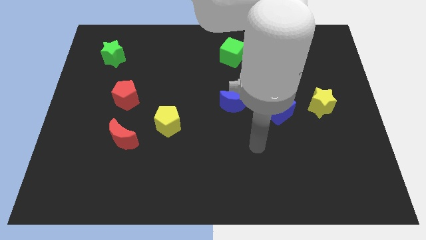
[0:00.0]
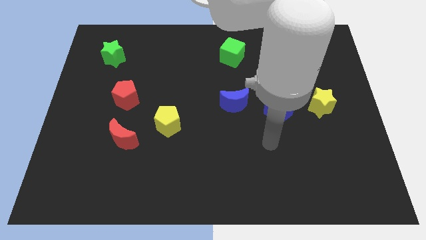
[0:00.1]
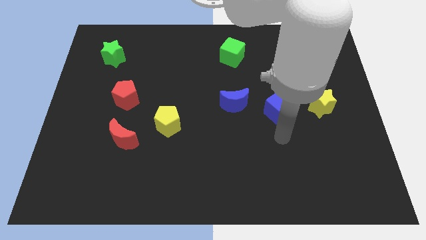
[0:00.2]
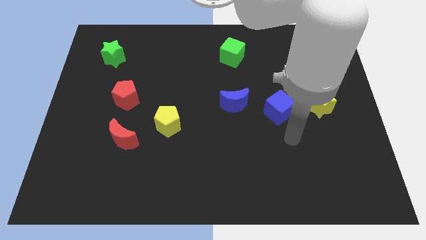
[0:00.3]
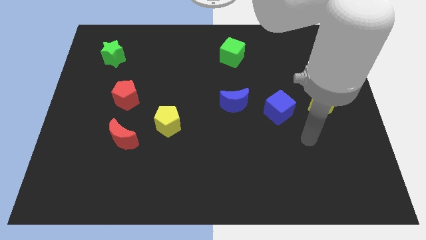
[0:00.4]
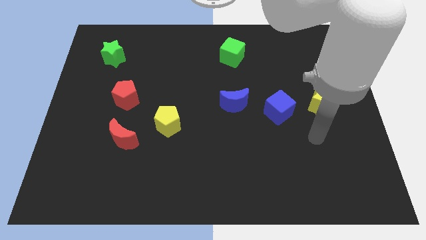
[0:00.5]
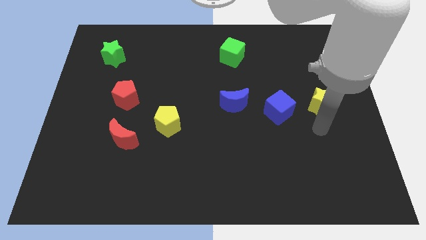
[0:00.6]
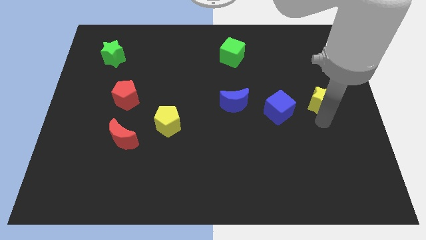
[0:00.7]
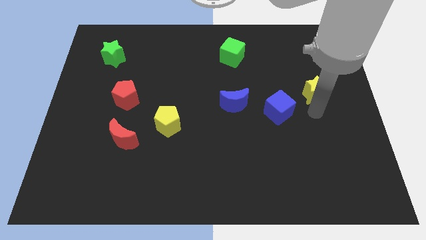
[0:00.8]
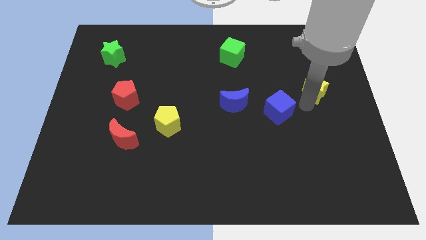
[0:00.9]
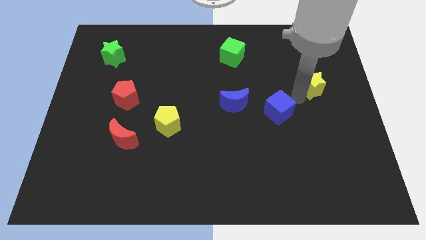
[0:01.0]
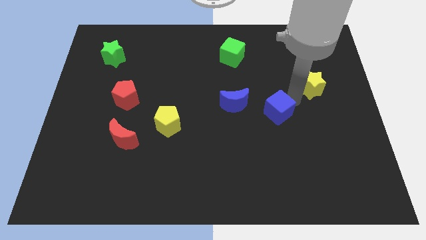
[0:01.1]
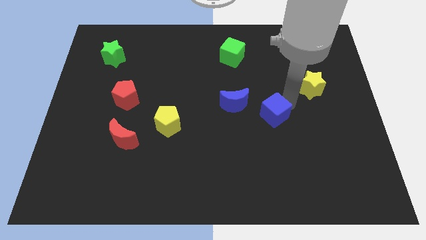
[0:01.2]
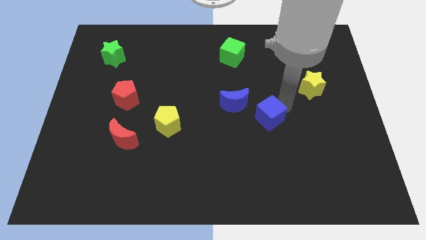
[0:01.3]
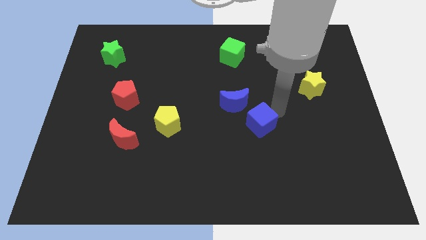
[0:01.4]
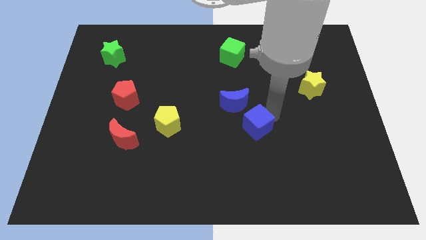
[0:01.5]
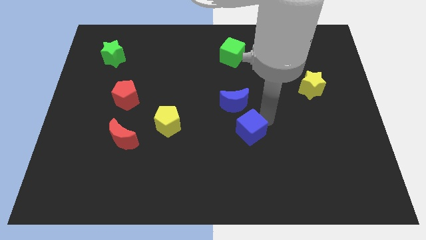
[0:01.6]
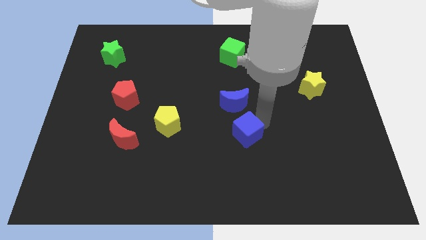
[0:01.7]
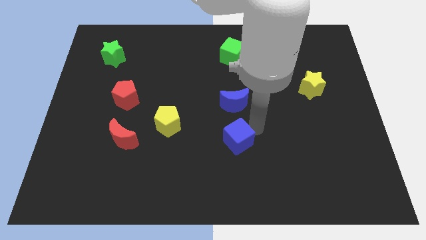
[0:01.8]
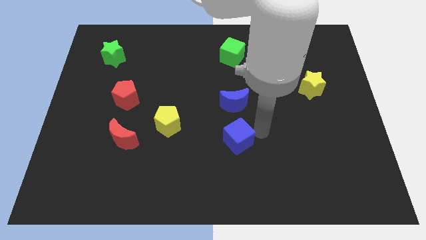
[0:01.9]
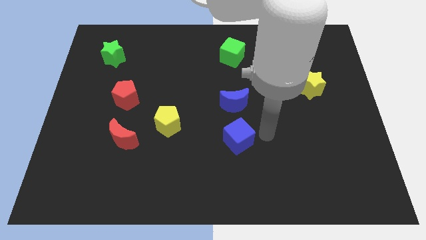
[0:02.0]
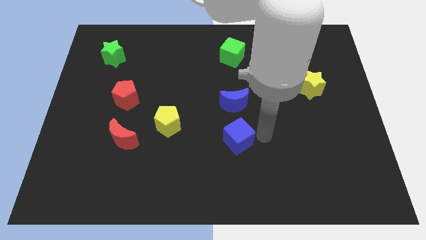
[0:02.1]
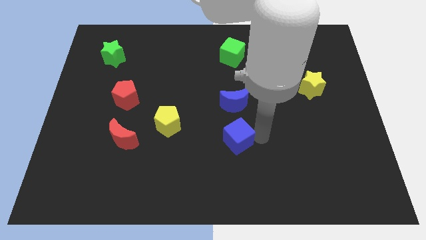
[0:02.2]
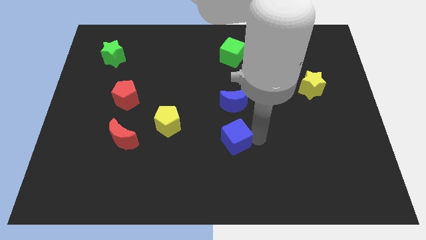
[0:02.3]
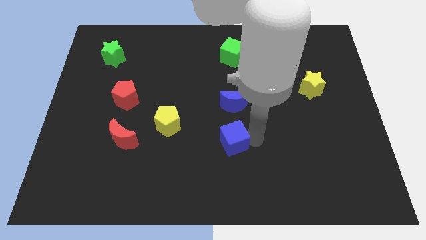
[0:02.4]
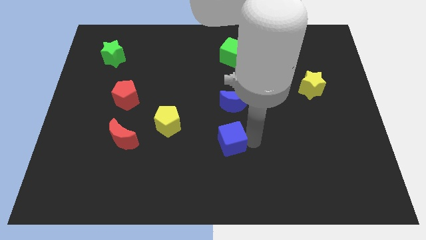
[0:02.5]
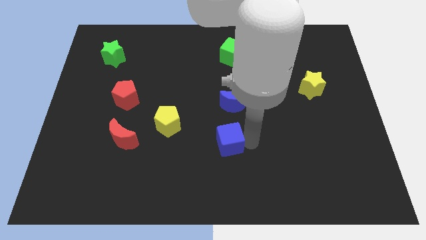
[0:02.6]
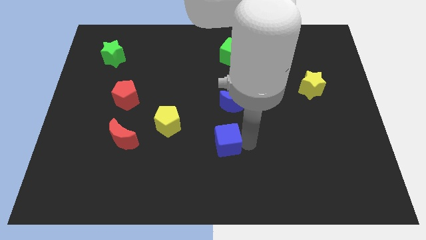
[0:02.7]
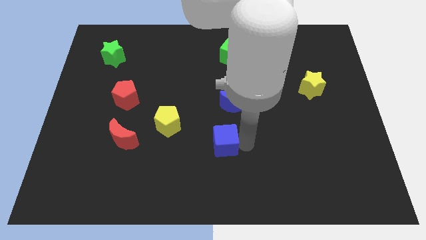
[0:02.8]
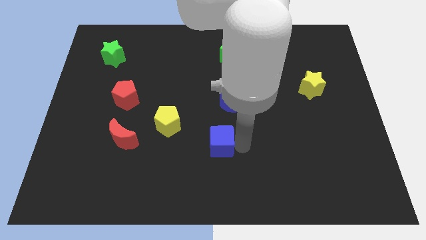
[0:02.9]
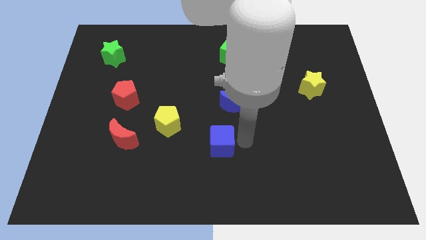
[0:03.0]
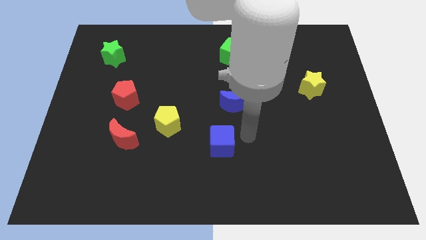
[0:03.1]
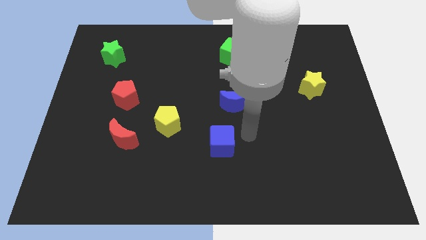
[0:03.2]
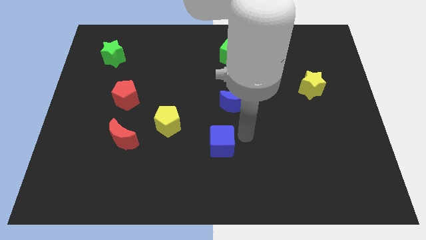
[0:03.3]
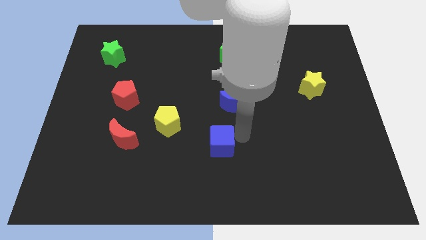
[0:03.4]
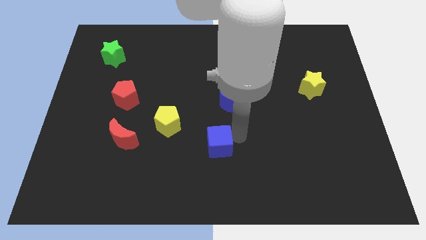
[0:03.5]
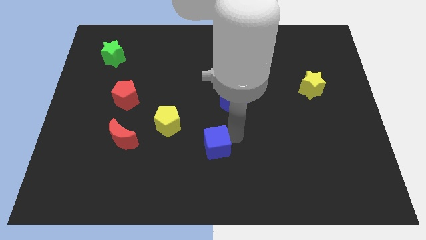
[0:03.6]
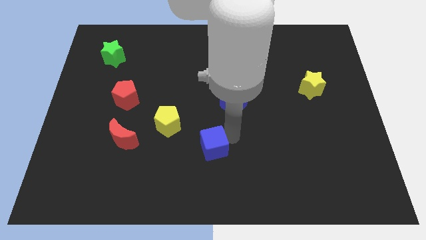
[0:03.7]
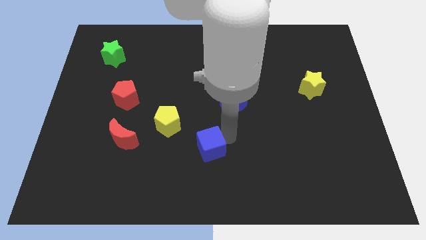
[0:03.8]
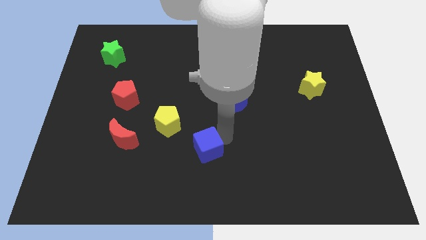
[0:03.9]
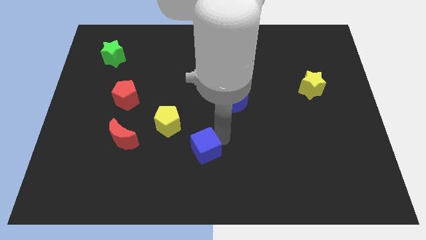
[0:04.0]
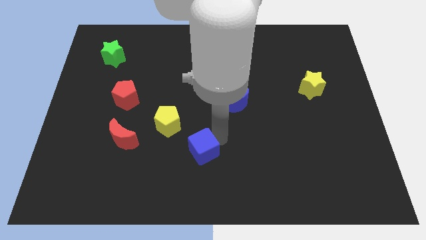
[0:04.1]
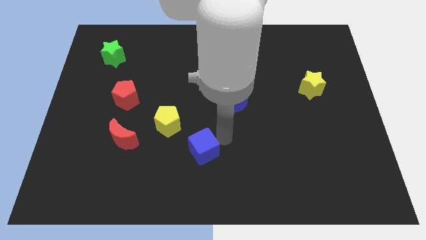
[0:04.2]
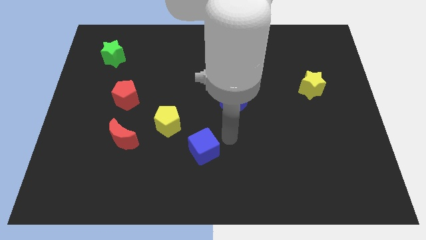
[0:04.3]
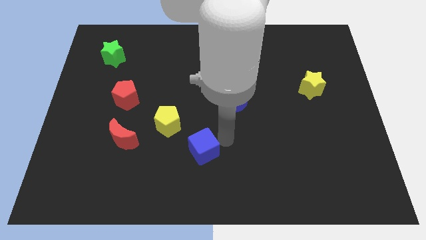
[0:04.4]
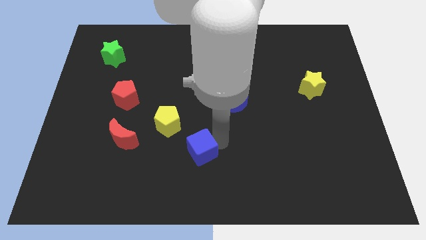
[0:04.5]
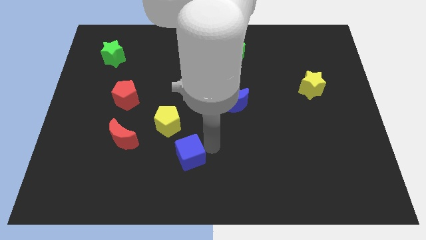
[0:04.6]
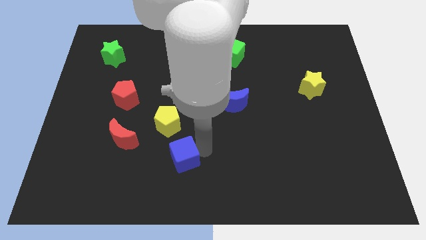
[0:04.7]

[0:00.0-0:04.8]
slide the blue cube to the bottom of the yellow pentagon

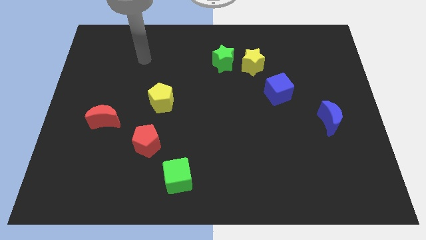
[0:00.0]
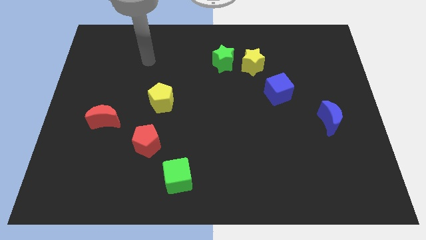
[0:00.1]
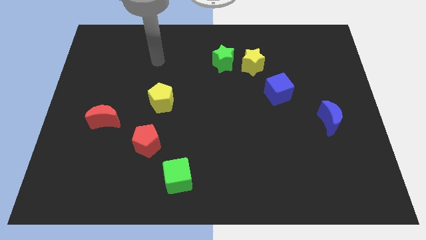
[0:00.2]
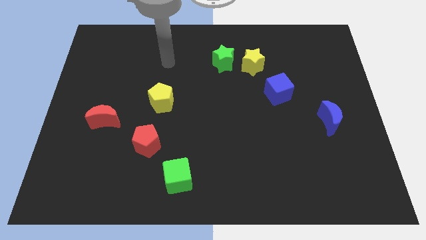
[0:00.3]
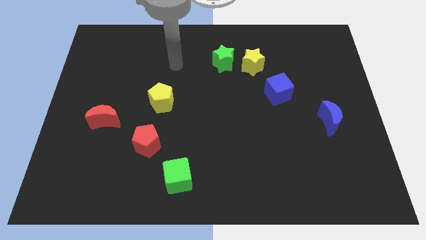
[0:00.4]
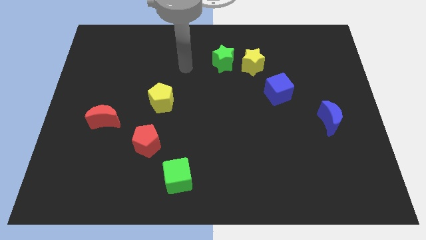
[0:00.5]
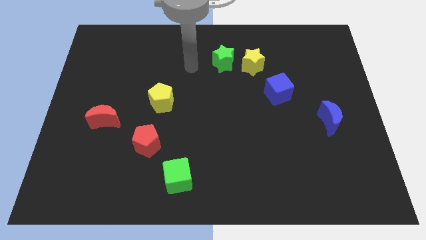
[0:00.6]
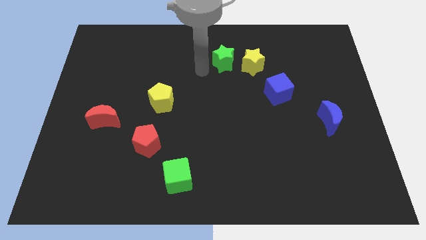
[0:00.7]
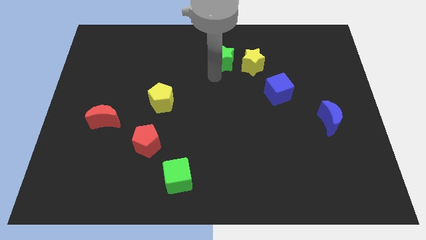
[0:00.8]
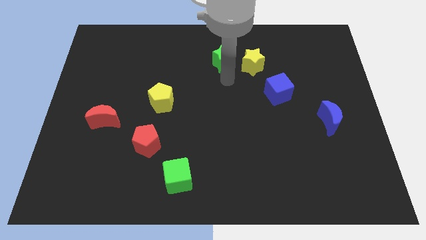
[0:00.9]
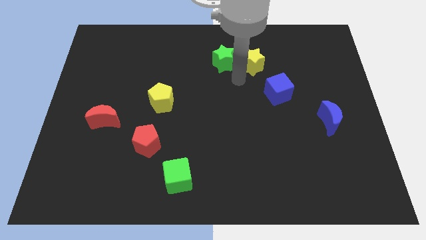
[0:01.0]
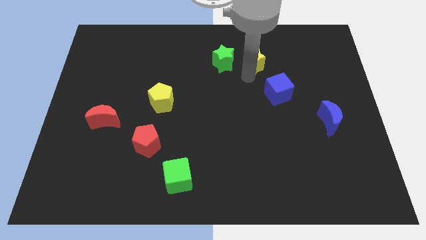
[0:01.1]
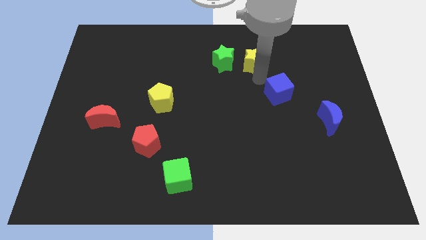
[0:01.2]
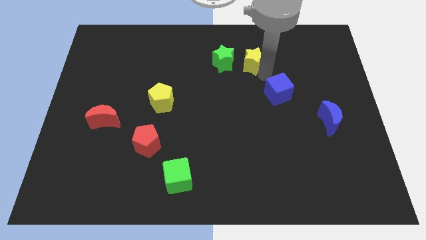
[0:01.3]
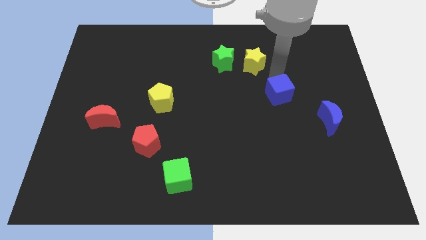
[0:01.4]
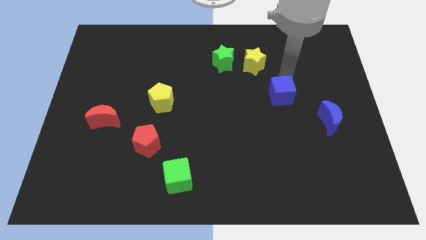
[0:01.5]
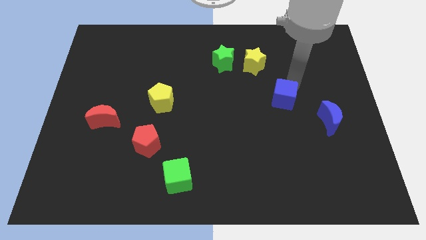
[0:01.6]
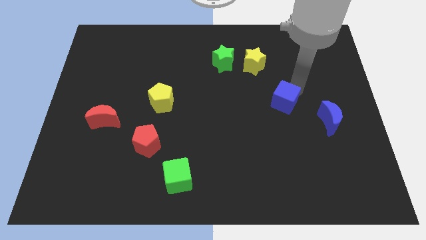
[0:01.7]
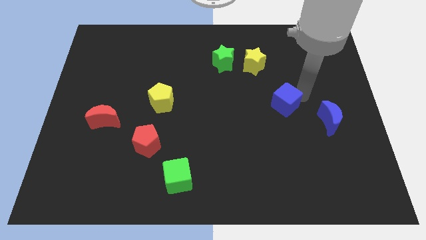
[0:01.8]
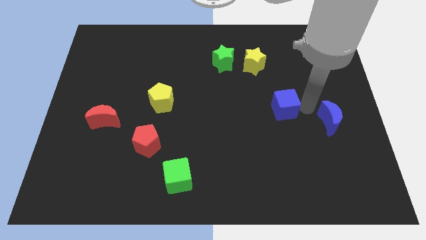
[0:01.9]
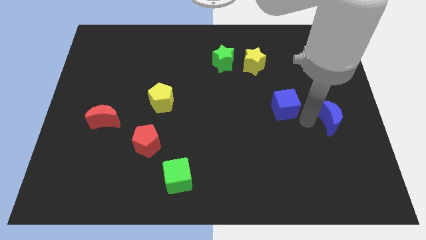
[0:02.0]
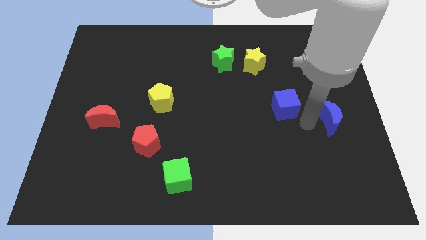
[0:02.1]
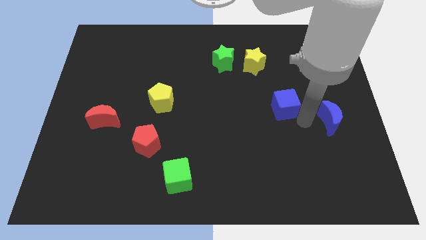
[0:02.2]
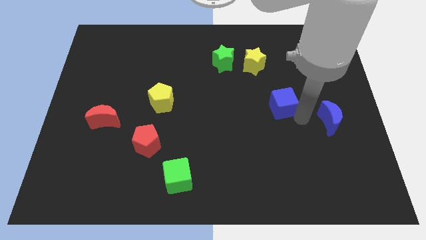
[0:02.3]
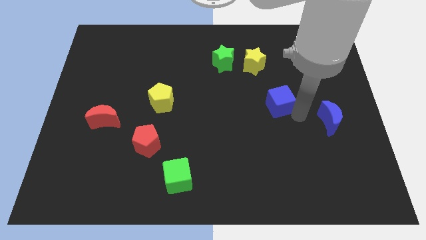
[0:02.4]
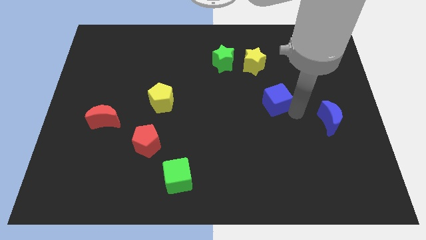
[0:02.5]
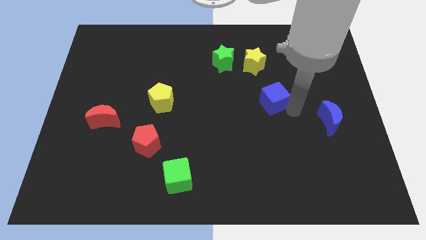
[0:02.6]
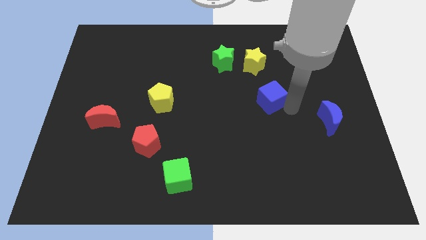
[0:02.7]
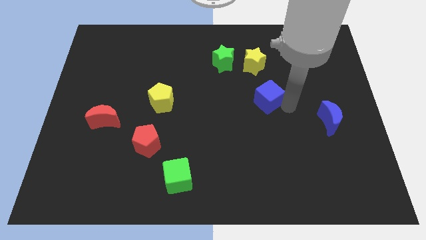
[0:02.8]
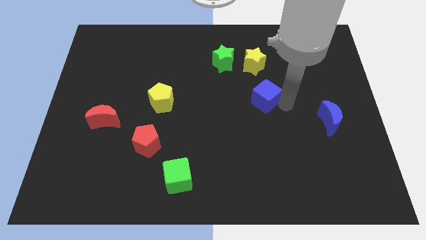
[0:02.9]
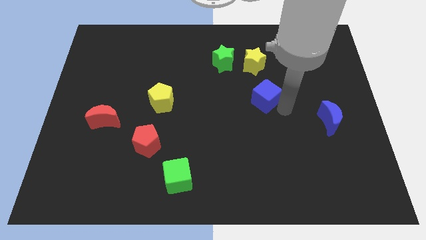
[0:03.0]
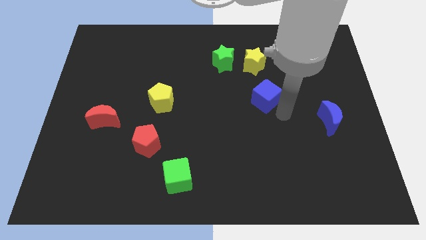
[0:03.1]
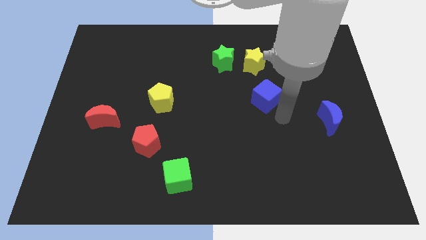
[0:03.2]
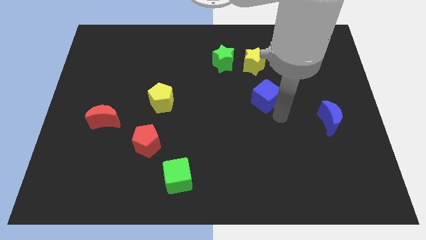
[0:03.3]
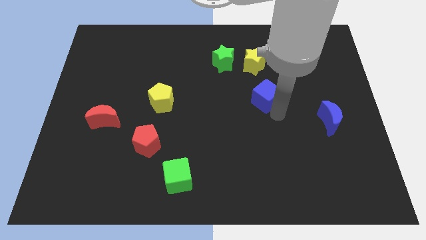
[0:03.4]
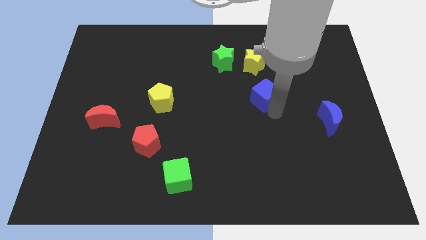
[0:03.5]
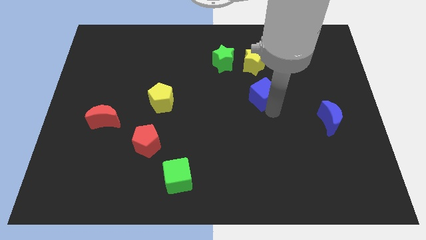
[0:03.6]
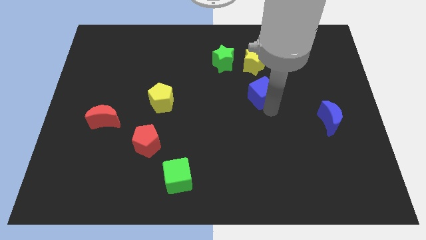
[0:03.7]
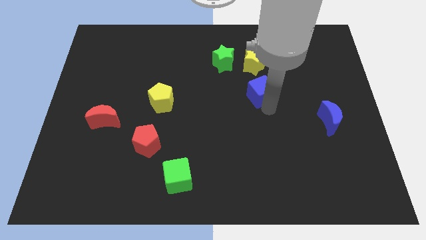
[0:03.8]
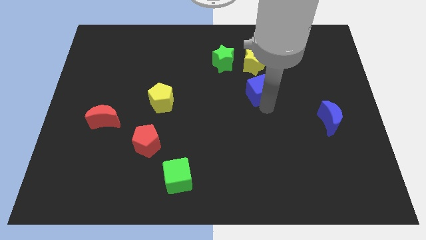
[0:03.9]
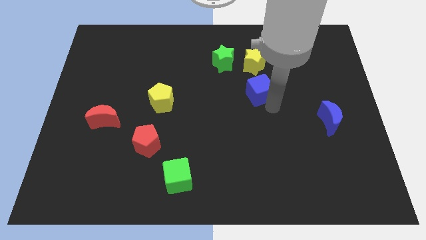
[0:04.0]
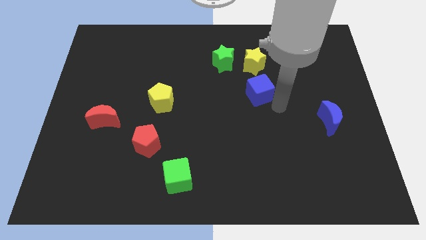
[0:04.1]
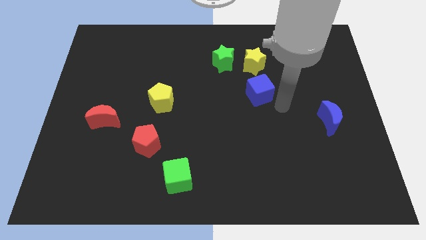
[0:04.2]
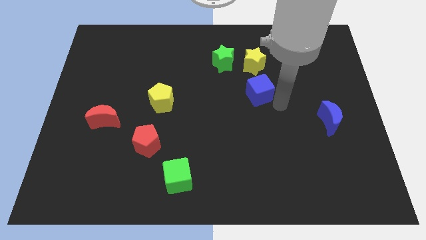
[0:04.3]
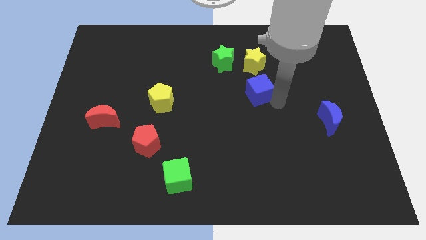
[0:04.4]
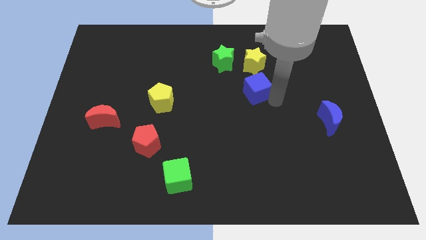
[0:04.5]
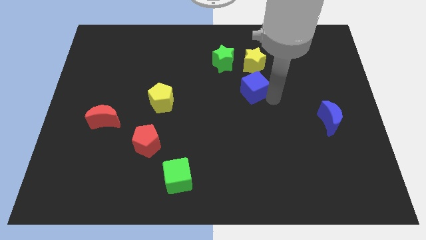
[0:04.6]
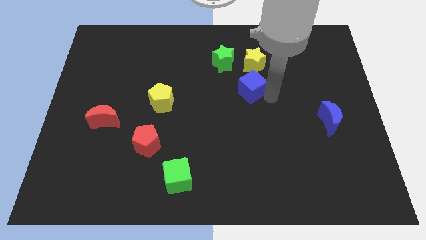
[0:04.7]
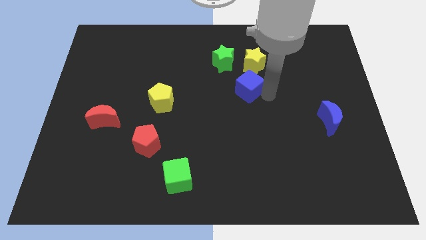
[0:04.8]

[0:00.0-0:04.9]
slide the blue cube to the bottom left side of the yellow star
